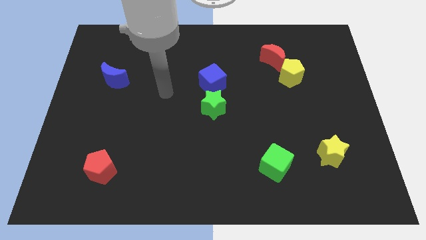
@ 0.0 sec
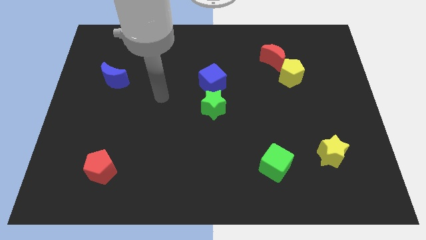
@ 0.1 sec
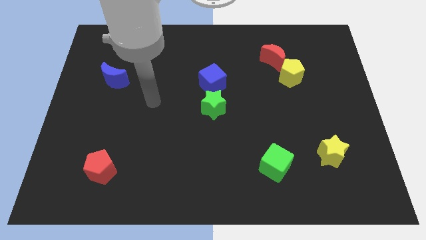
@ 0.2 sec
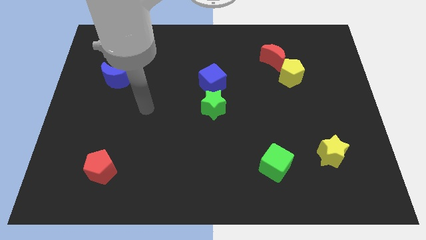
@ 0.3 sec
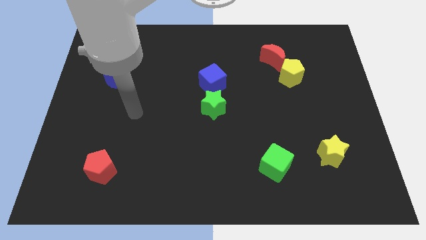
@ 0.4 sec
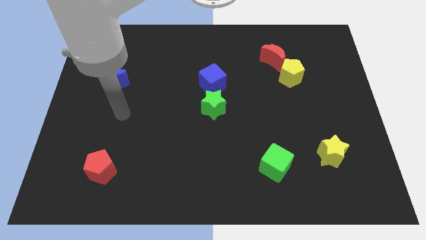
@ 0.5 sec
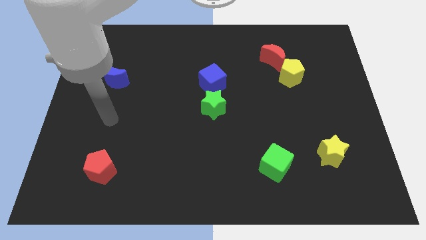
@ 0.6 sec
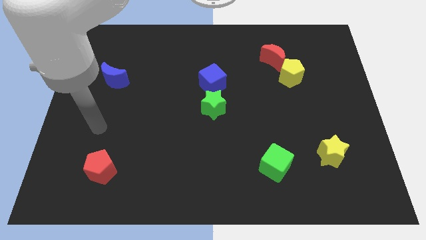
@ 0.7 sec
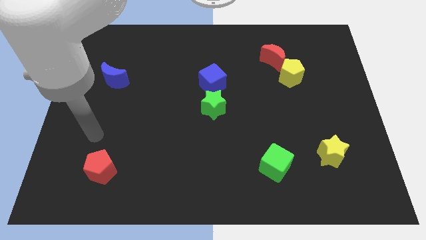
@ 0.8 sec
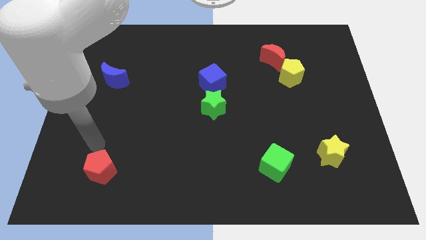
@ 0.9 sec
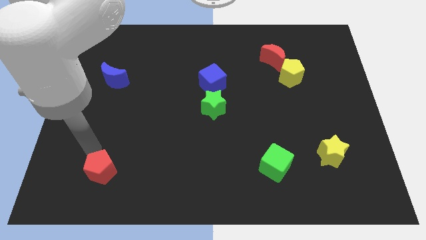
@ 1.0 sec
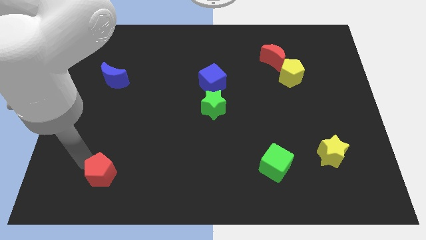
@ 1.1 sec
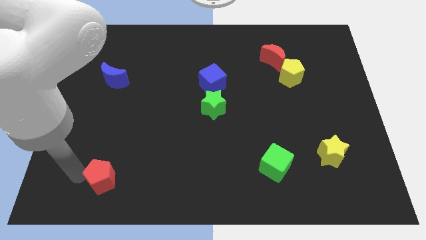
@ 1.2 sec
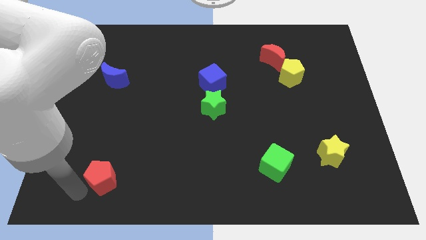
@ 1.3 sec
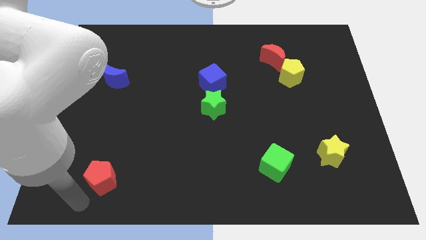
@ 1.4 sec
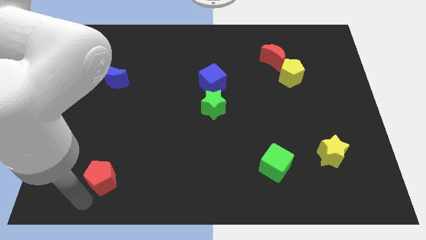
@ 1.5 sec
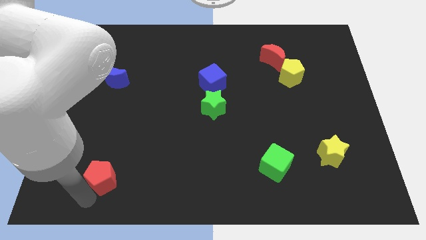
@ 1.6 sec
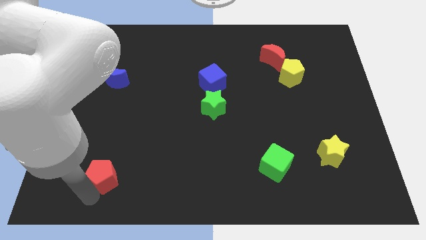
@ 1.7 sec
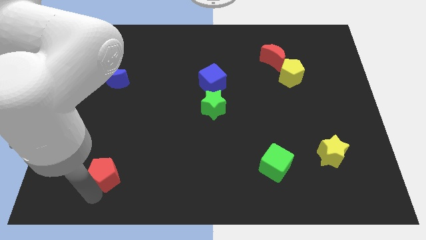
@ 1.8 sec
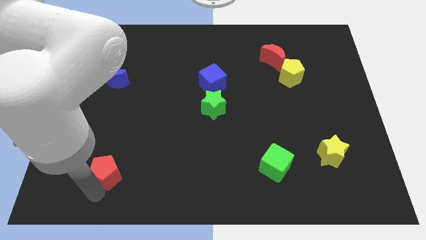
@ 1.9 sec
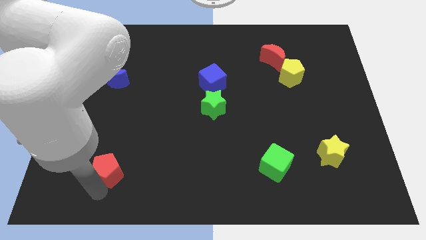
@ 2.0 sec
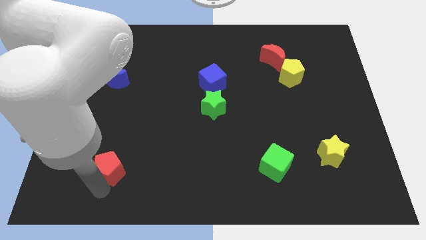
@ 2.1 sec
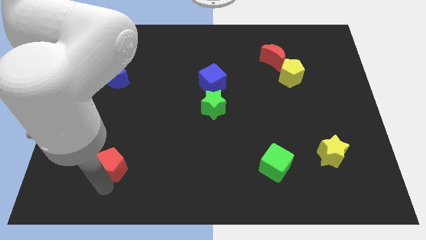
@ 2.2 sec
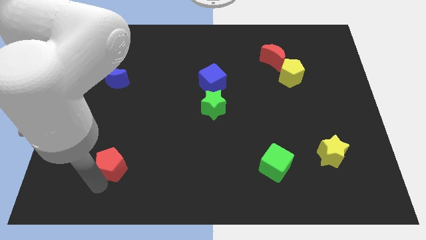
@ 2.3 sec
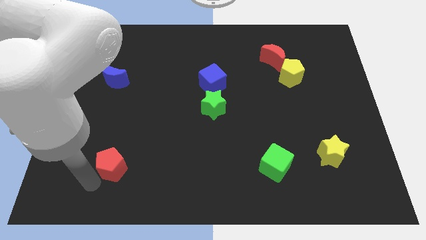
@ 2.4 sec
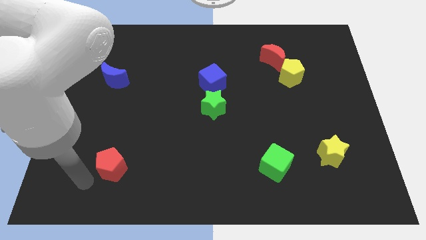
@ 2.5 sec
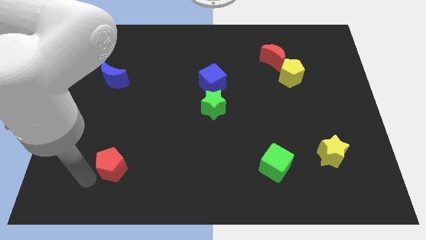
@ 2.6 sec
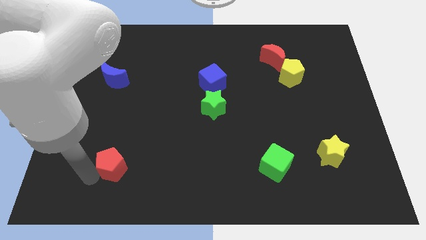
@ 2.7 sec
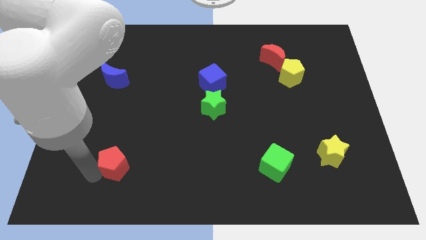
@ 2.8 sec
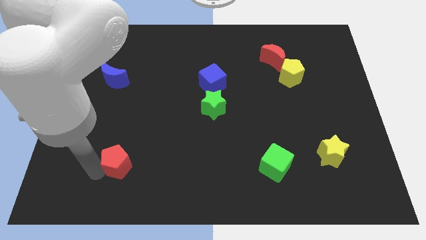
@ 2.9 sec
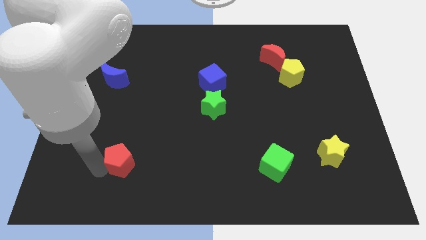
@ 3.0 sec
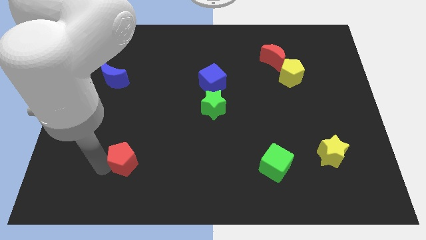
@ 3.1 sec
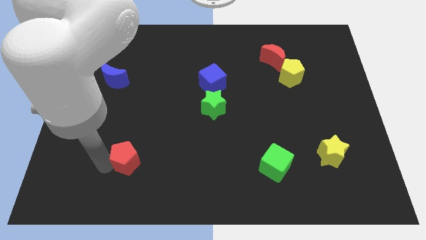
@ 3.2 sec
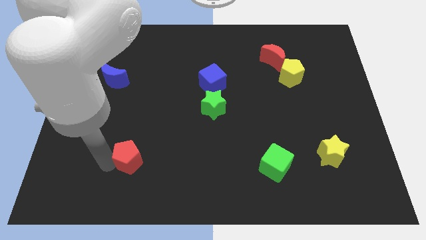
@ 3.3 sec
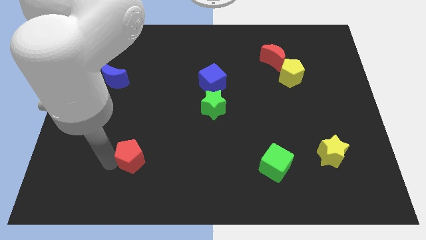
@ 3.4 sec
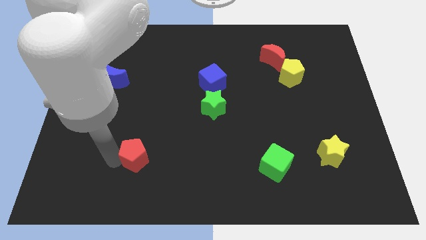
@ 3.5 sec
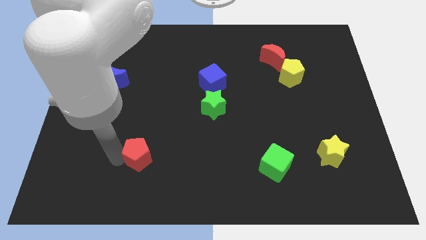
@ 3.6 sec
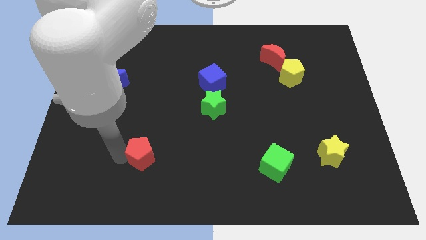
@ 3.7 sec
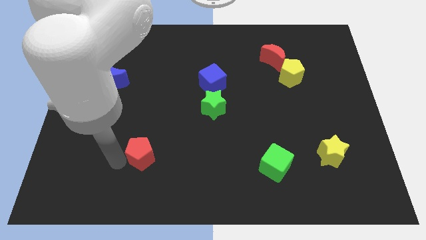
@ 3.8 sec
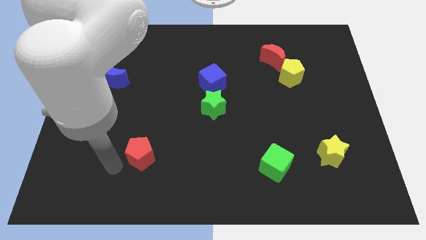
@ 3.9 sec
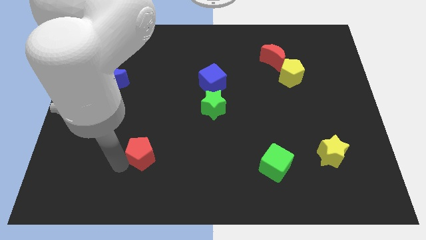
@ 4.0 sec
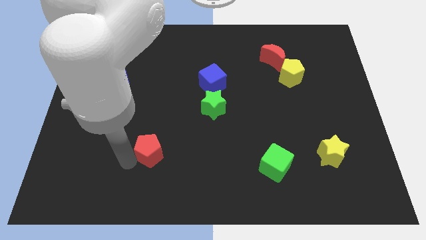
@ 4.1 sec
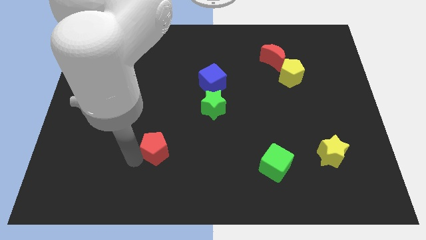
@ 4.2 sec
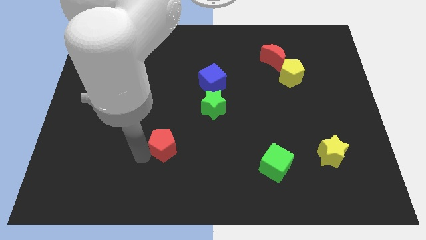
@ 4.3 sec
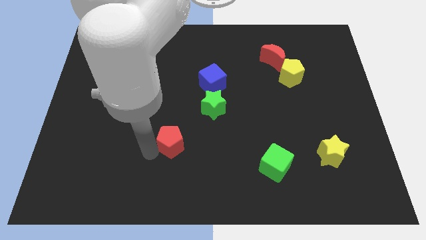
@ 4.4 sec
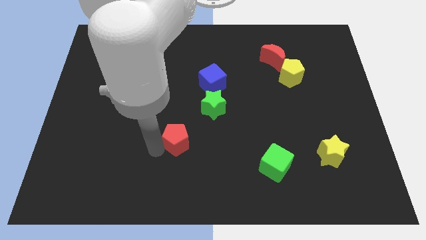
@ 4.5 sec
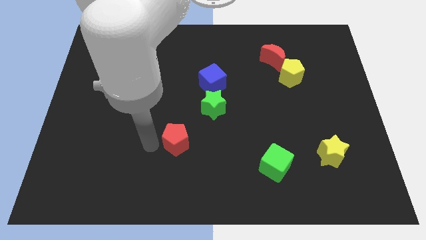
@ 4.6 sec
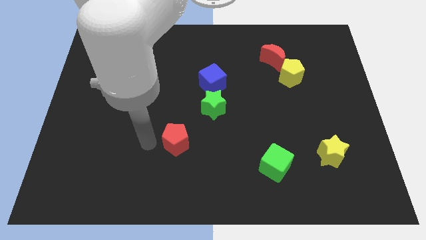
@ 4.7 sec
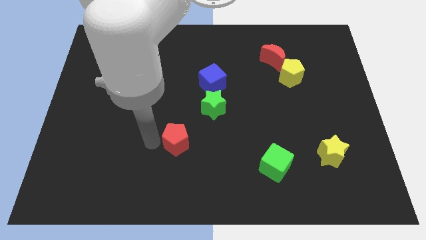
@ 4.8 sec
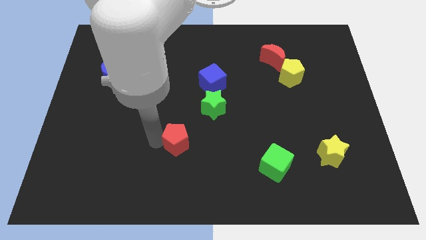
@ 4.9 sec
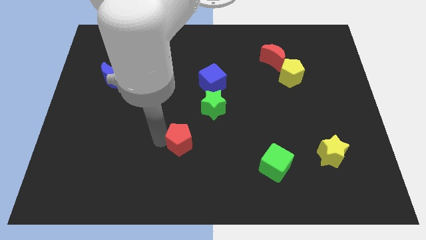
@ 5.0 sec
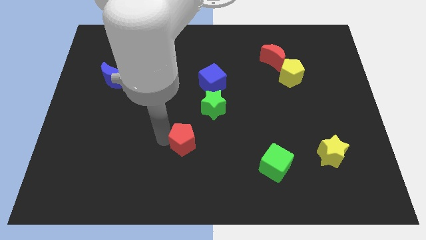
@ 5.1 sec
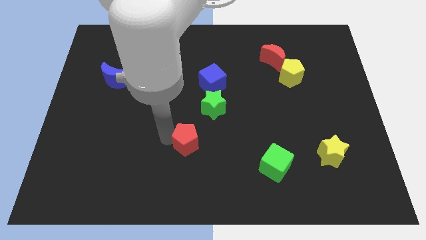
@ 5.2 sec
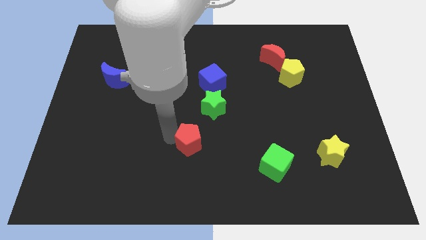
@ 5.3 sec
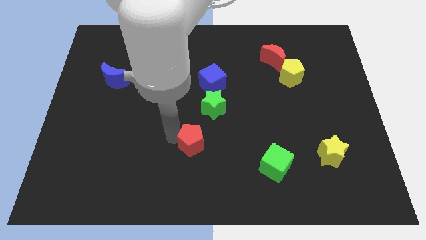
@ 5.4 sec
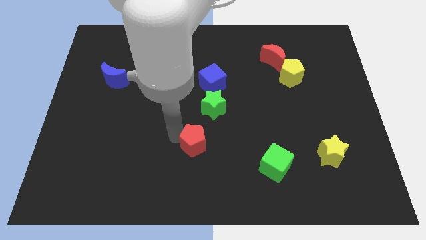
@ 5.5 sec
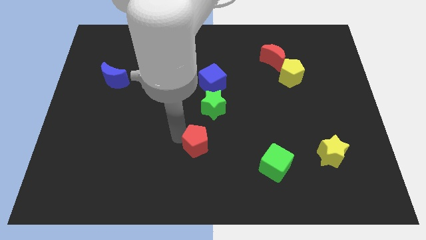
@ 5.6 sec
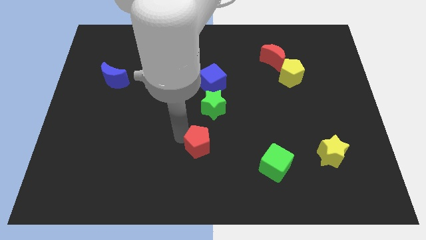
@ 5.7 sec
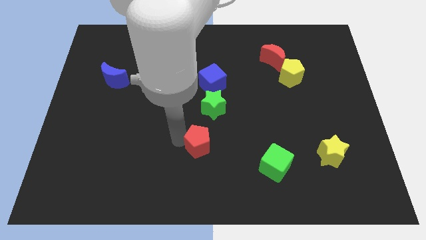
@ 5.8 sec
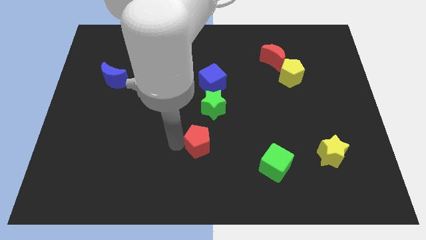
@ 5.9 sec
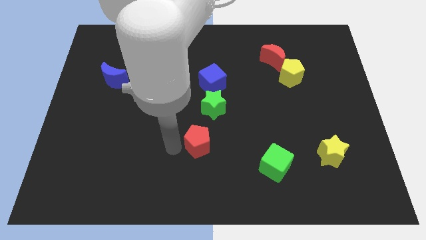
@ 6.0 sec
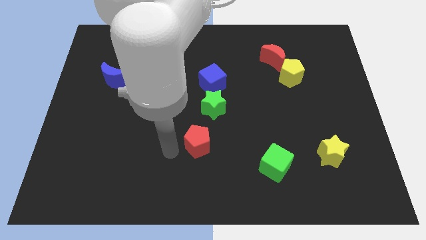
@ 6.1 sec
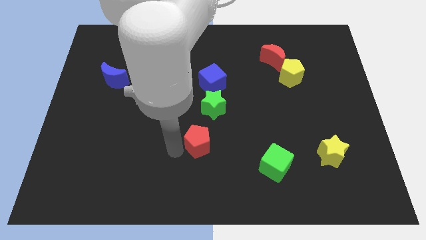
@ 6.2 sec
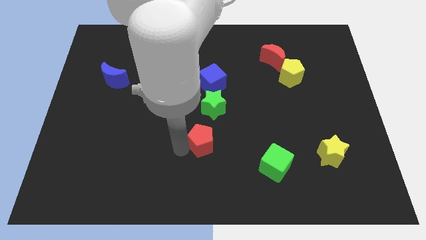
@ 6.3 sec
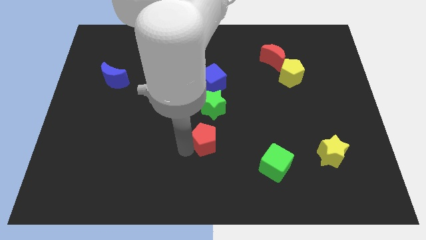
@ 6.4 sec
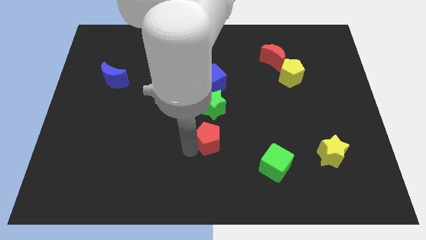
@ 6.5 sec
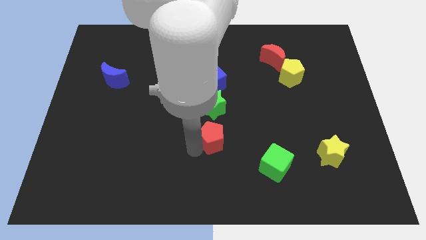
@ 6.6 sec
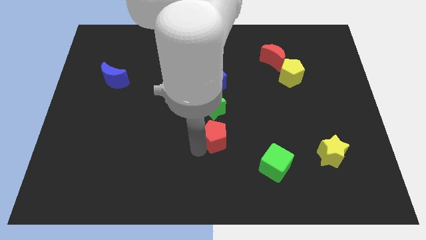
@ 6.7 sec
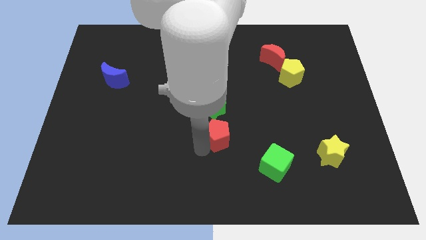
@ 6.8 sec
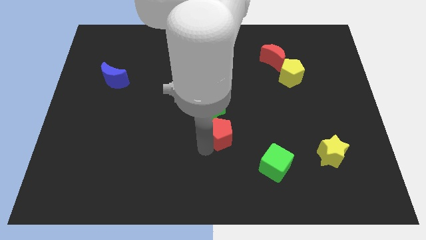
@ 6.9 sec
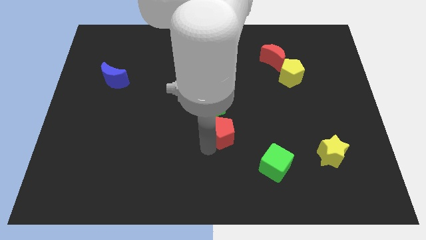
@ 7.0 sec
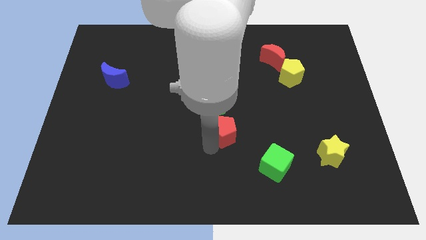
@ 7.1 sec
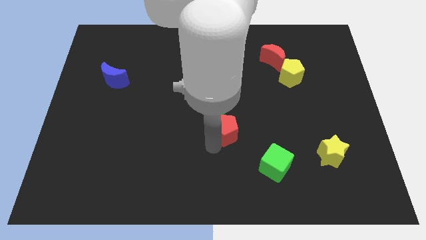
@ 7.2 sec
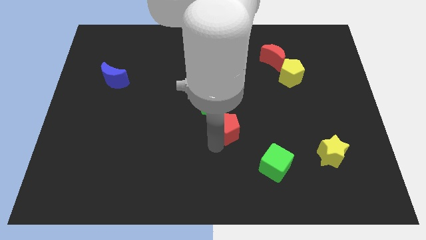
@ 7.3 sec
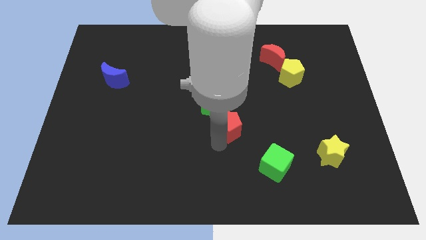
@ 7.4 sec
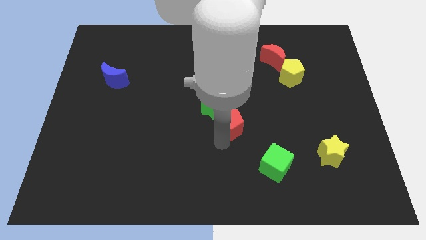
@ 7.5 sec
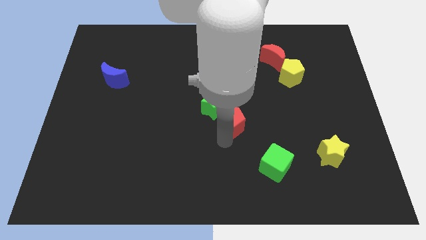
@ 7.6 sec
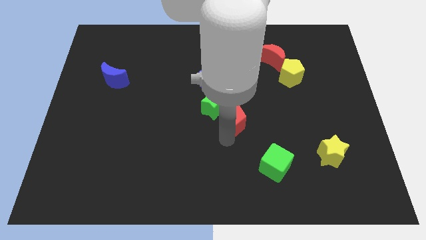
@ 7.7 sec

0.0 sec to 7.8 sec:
push the red pentagon right of the green star
